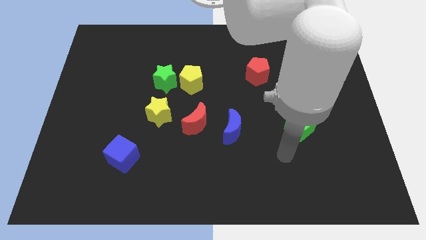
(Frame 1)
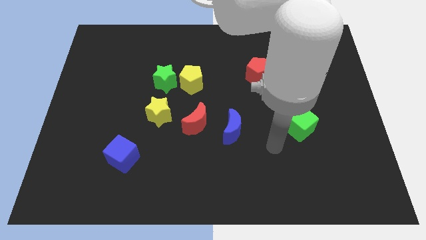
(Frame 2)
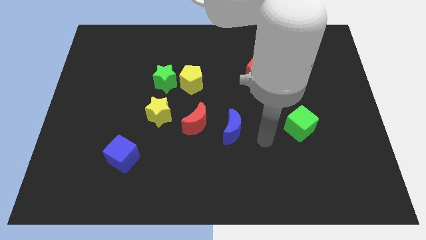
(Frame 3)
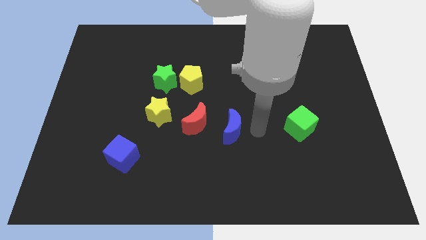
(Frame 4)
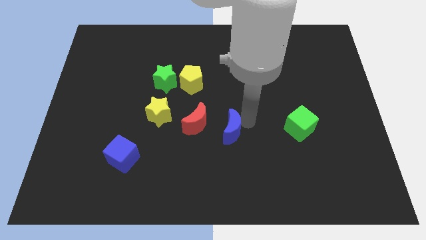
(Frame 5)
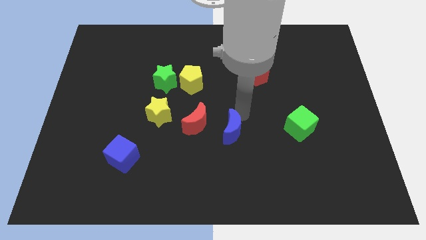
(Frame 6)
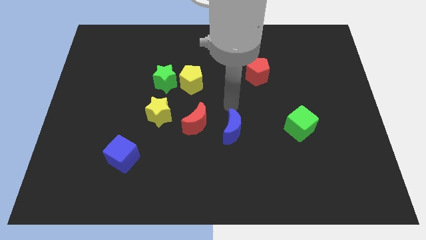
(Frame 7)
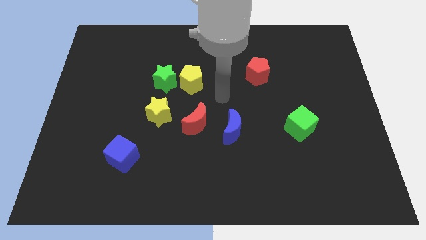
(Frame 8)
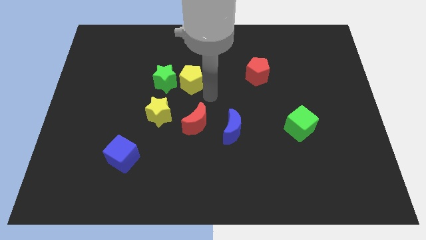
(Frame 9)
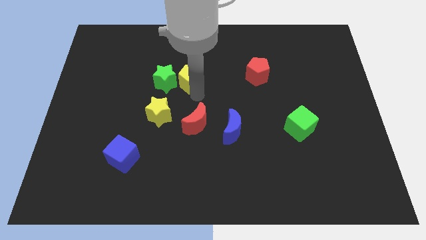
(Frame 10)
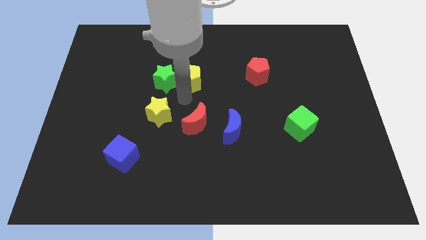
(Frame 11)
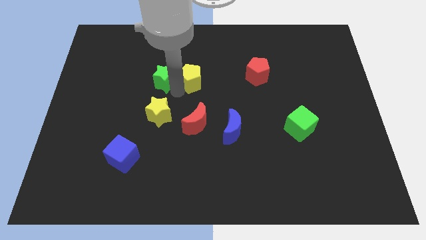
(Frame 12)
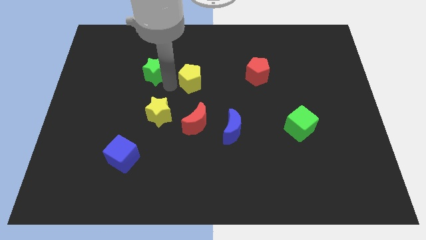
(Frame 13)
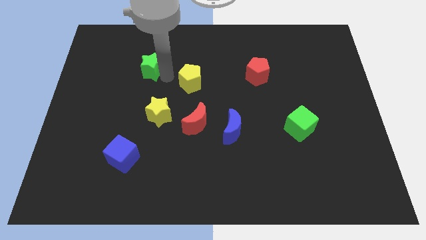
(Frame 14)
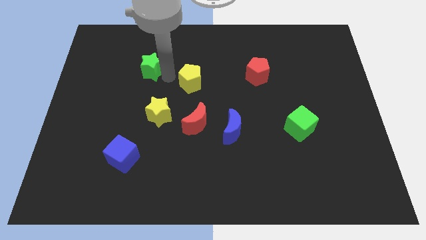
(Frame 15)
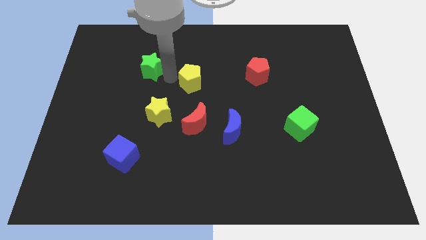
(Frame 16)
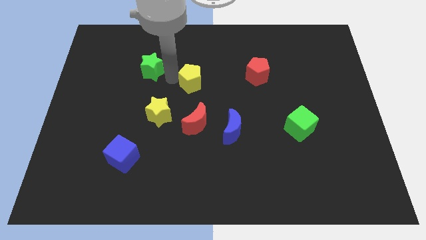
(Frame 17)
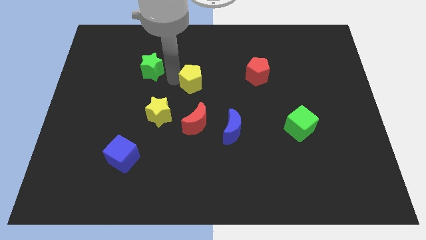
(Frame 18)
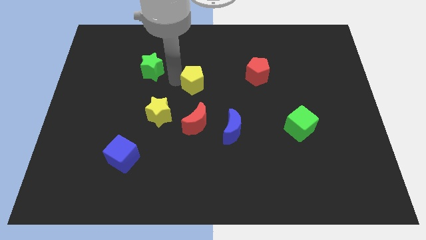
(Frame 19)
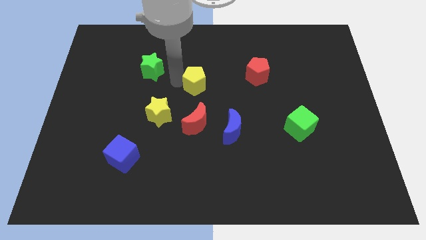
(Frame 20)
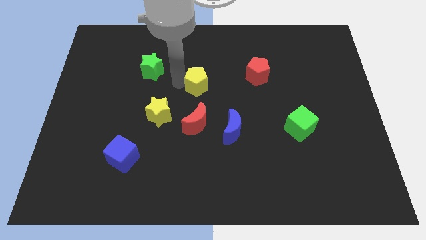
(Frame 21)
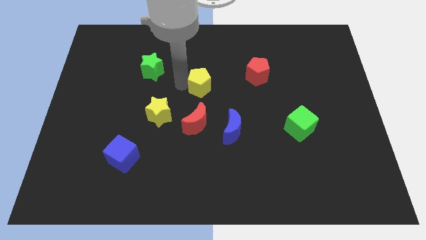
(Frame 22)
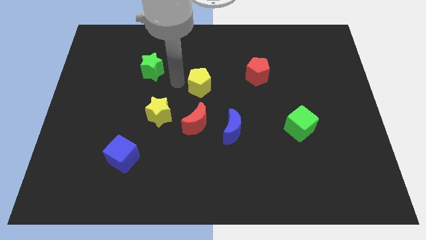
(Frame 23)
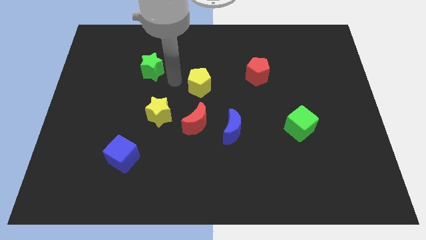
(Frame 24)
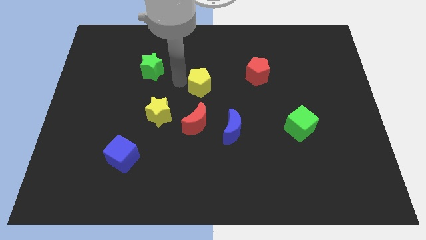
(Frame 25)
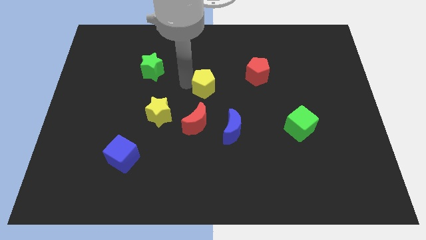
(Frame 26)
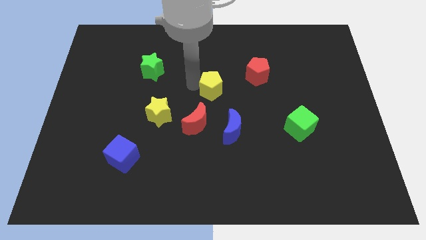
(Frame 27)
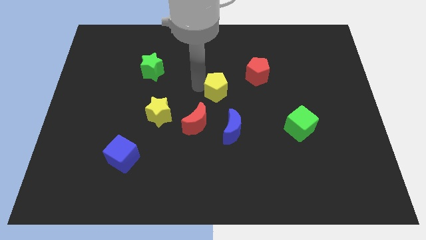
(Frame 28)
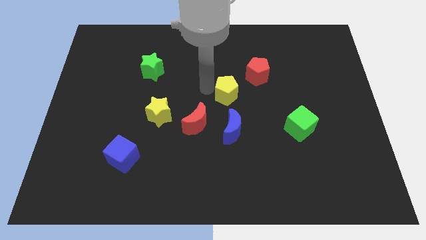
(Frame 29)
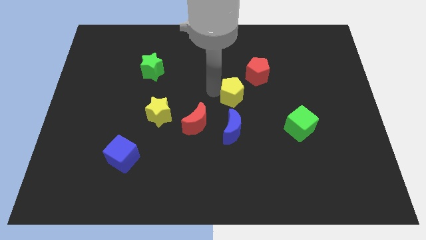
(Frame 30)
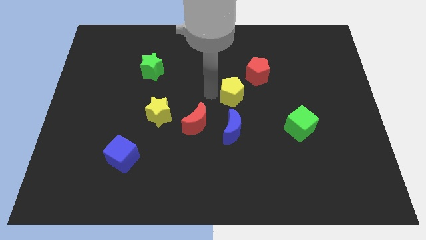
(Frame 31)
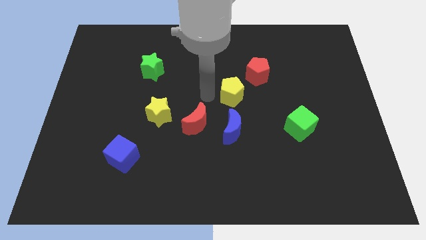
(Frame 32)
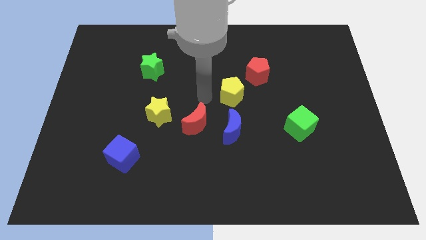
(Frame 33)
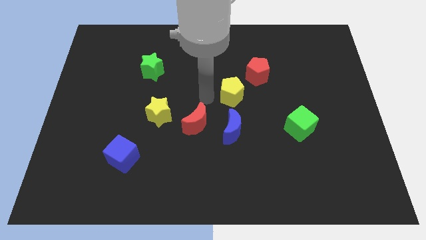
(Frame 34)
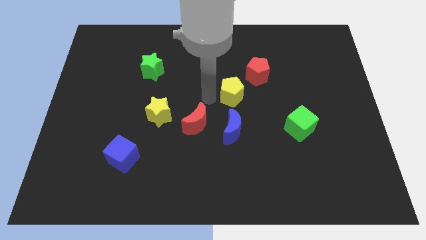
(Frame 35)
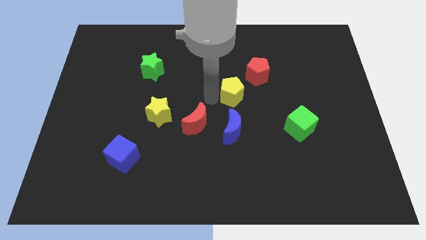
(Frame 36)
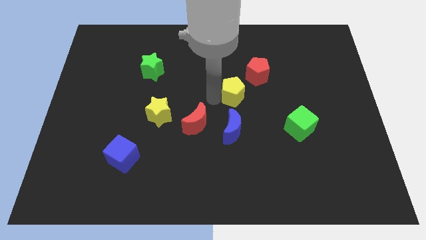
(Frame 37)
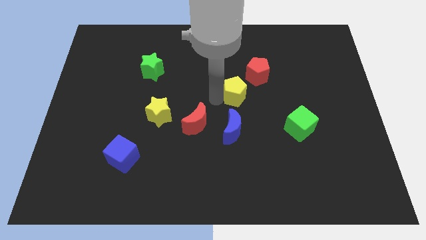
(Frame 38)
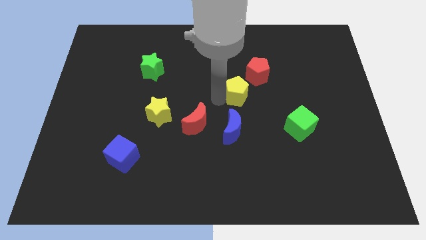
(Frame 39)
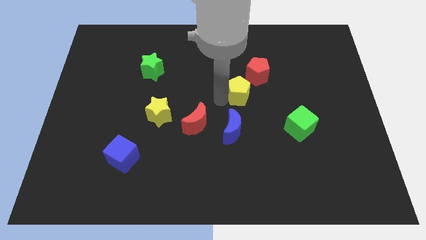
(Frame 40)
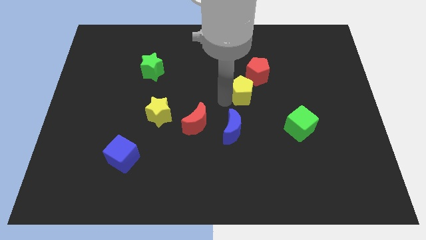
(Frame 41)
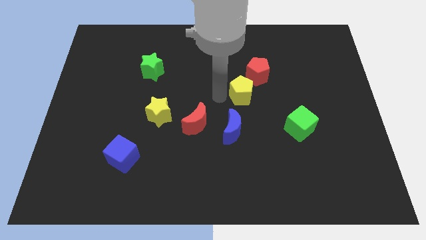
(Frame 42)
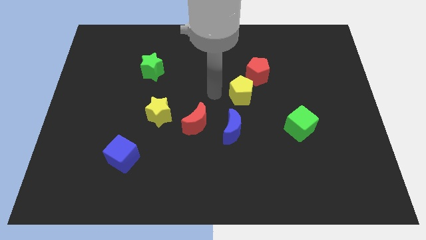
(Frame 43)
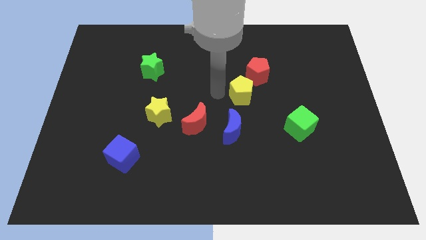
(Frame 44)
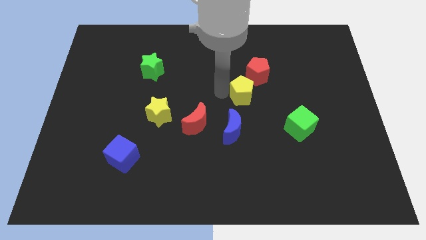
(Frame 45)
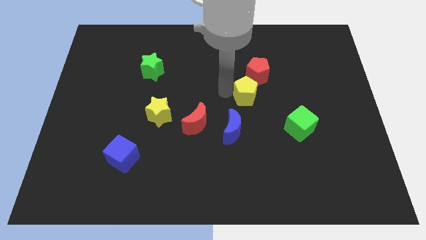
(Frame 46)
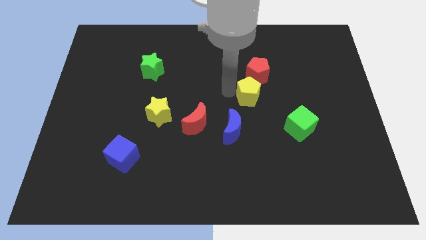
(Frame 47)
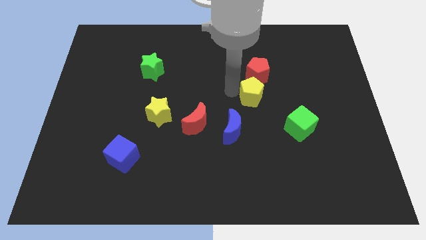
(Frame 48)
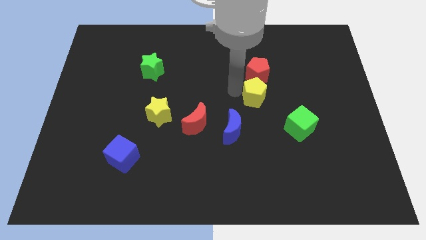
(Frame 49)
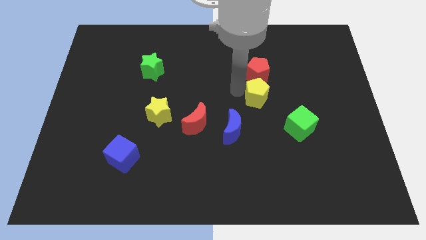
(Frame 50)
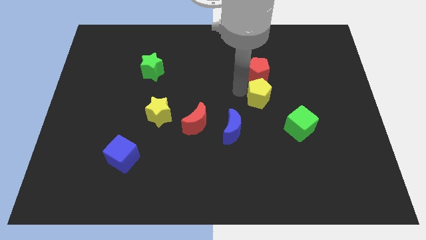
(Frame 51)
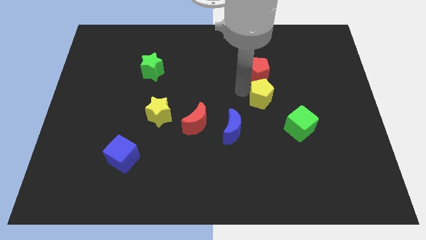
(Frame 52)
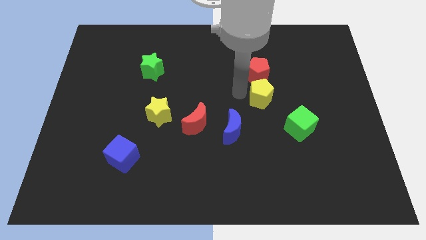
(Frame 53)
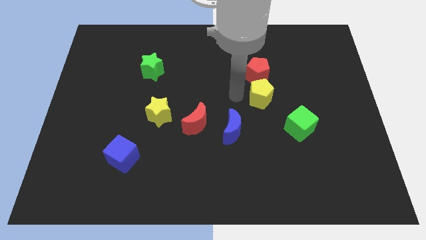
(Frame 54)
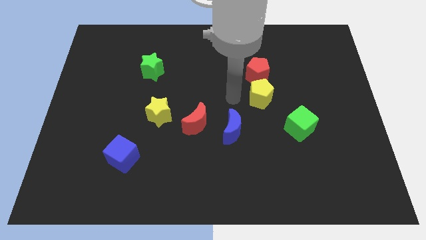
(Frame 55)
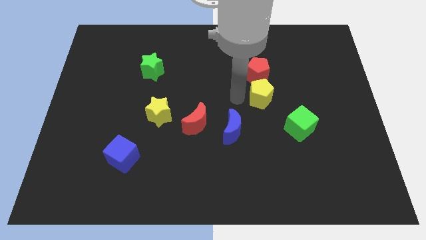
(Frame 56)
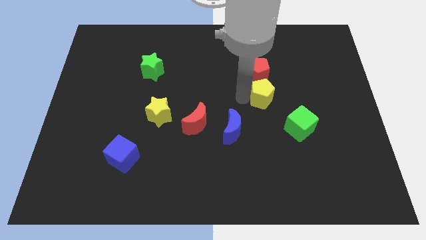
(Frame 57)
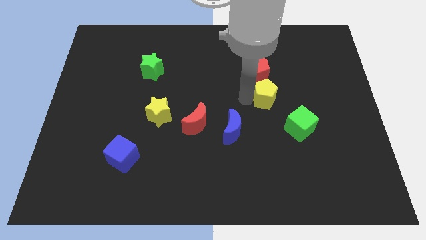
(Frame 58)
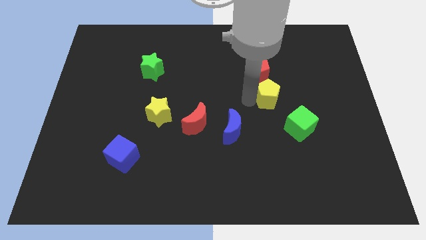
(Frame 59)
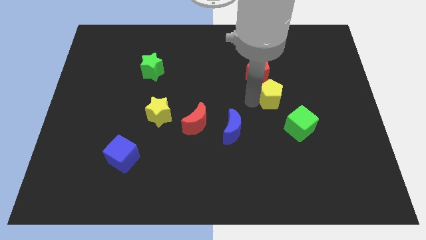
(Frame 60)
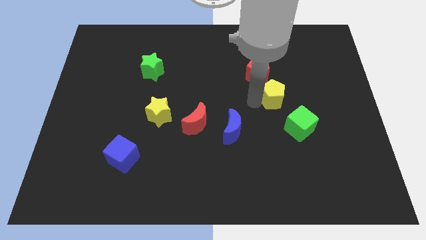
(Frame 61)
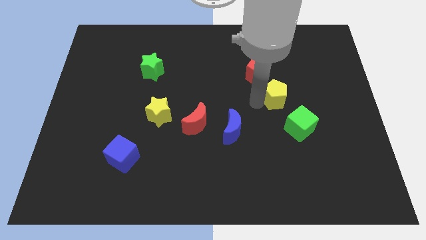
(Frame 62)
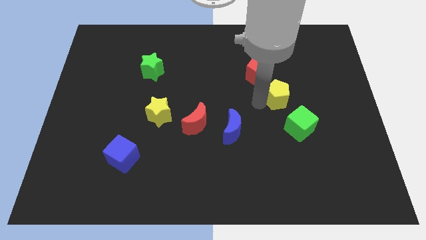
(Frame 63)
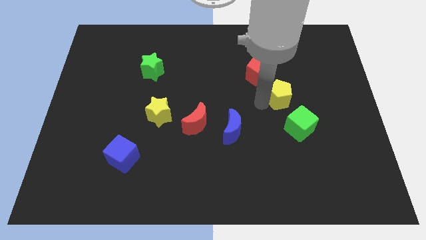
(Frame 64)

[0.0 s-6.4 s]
move the yellow pentagon to the right

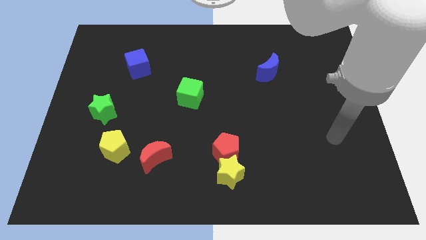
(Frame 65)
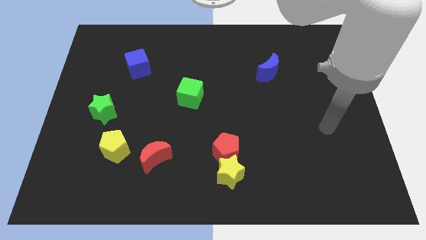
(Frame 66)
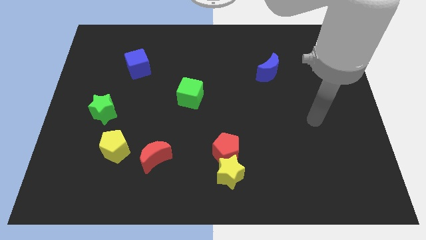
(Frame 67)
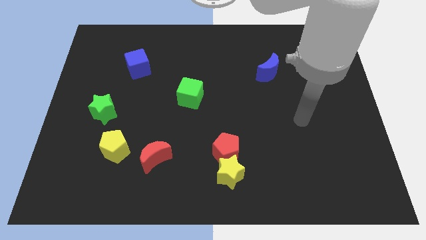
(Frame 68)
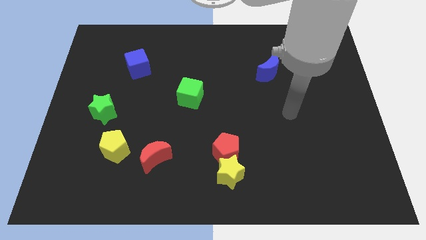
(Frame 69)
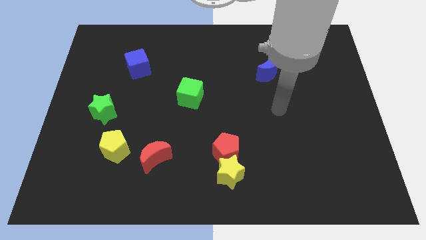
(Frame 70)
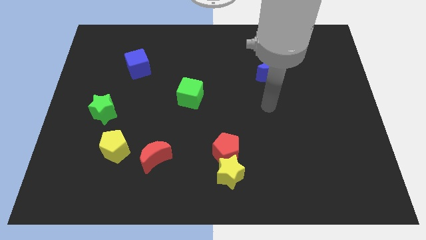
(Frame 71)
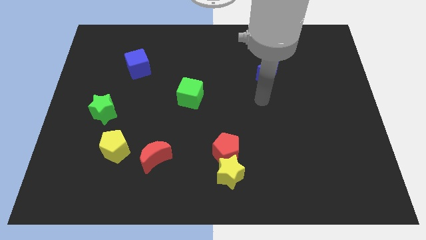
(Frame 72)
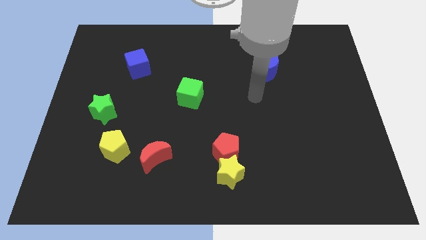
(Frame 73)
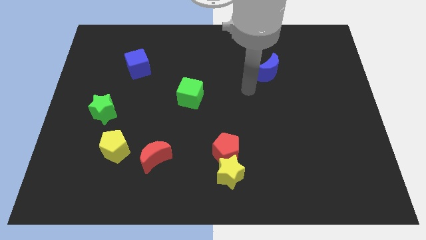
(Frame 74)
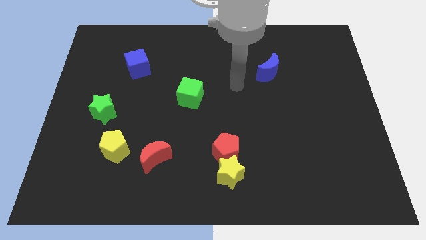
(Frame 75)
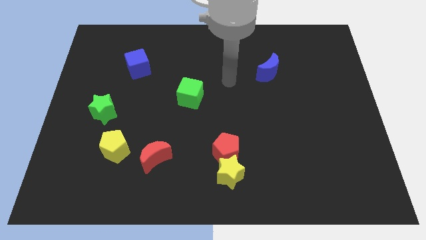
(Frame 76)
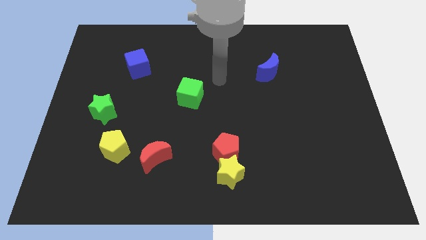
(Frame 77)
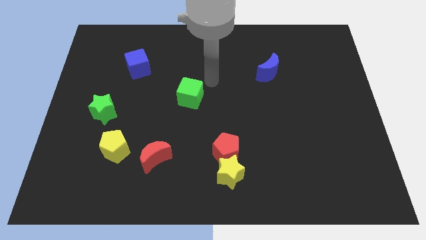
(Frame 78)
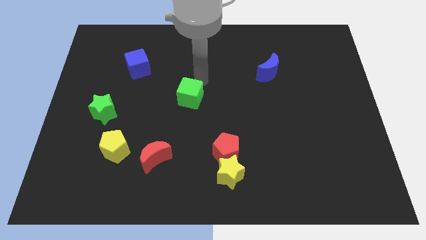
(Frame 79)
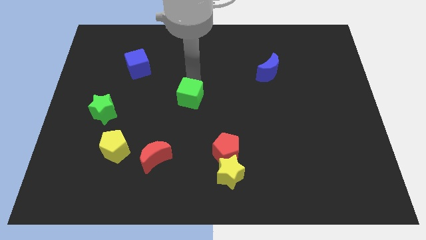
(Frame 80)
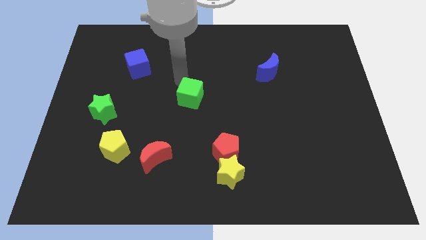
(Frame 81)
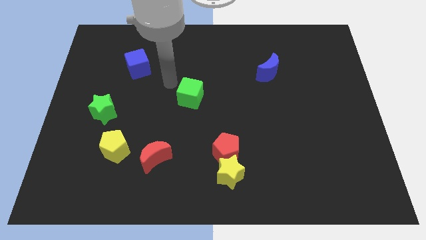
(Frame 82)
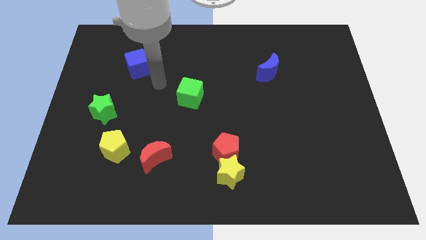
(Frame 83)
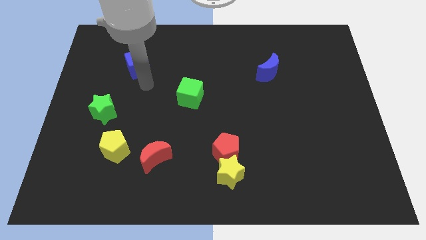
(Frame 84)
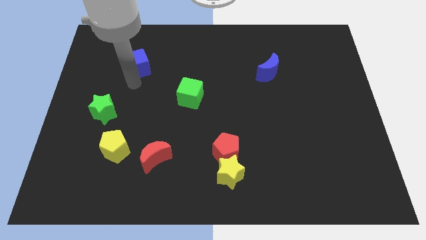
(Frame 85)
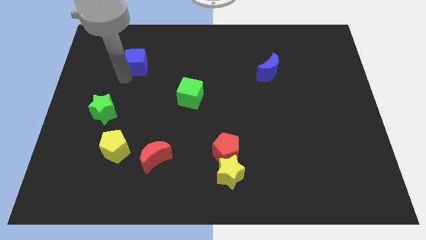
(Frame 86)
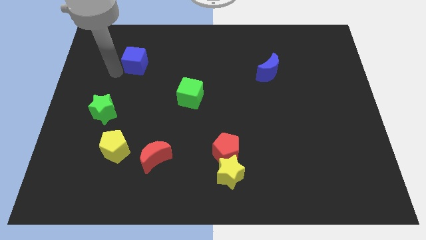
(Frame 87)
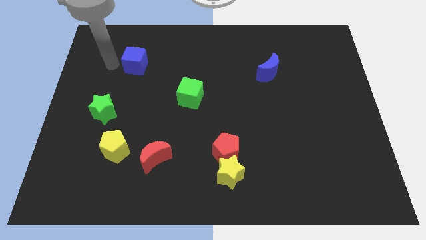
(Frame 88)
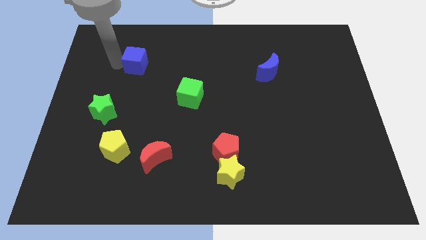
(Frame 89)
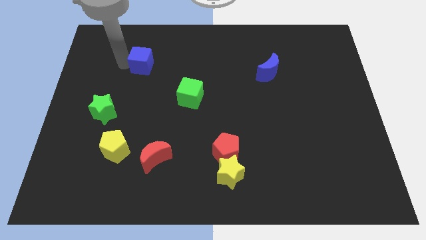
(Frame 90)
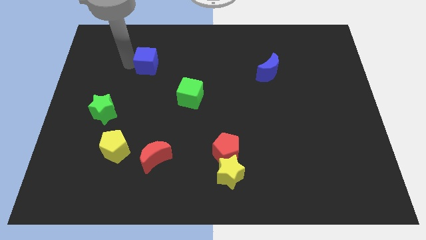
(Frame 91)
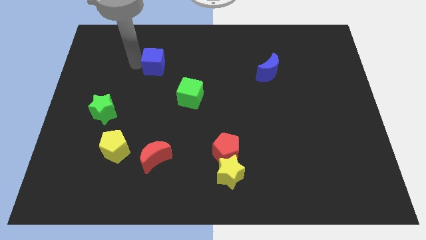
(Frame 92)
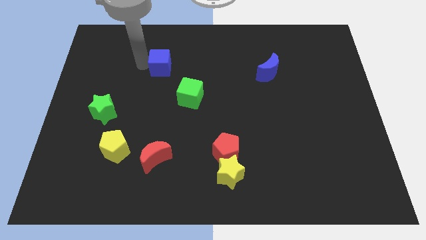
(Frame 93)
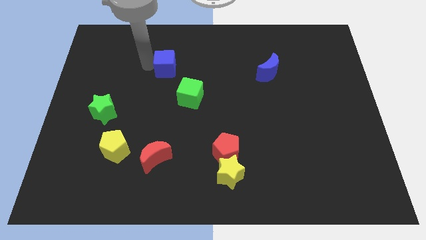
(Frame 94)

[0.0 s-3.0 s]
move the blue cube to the right somewhat
